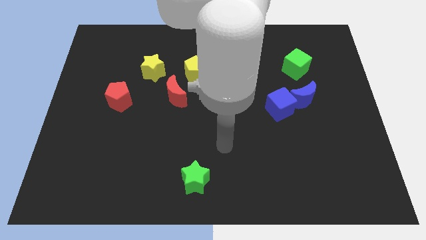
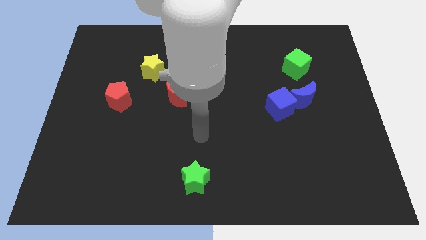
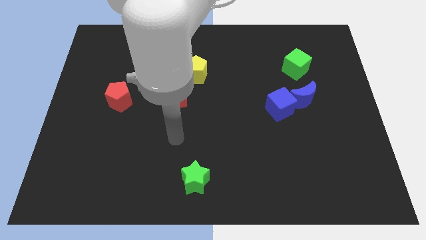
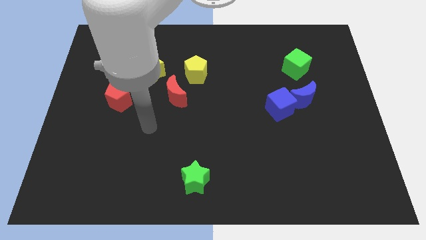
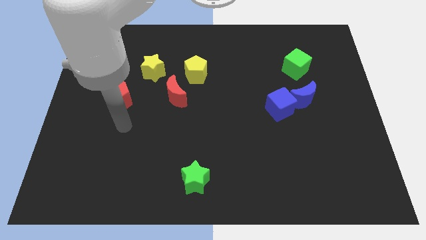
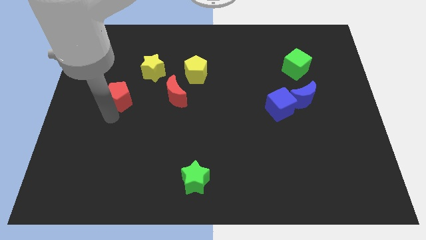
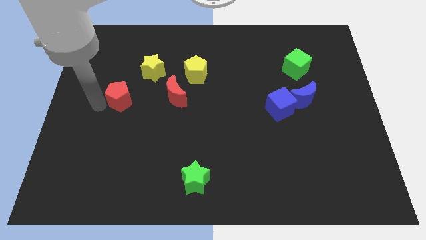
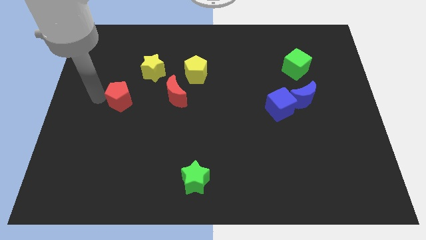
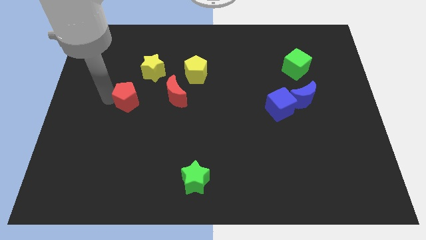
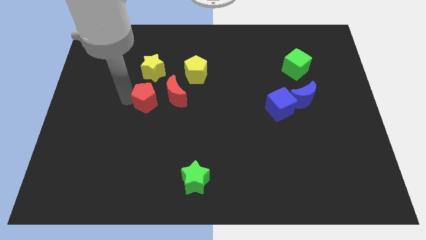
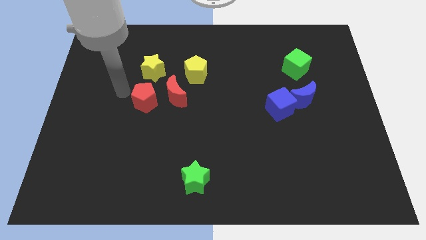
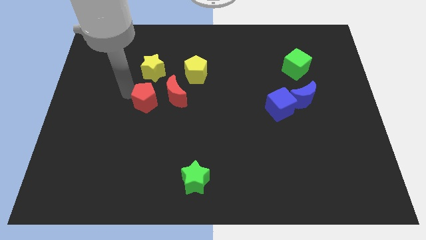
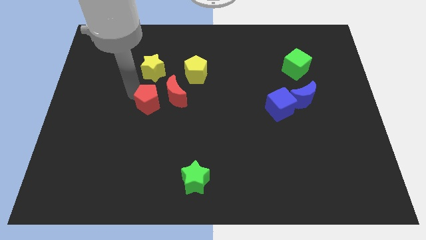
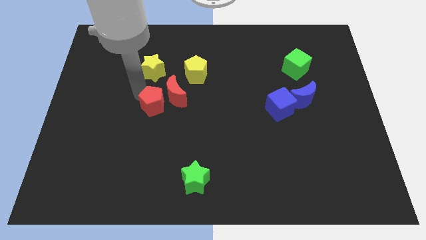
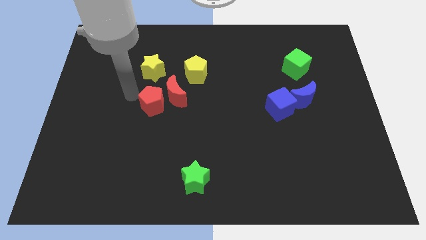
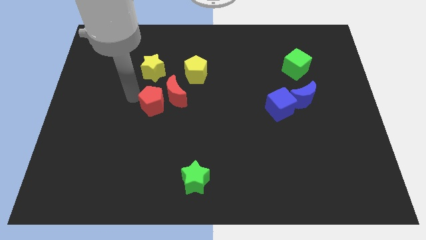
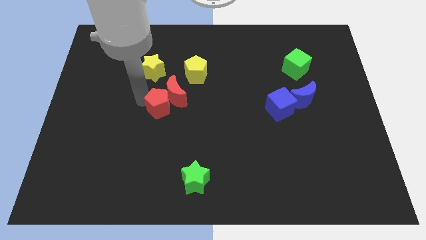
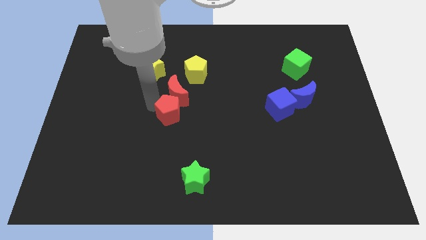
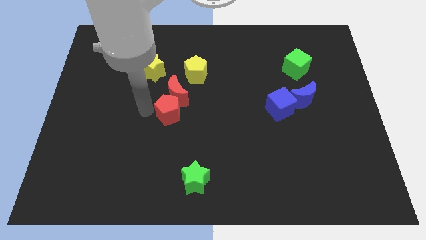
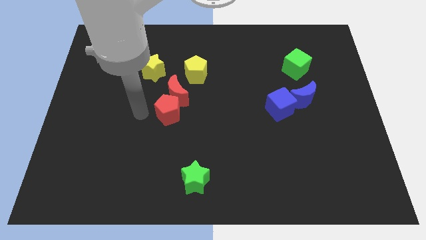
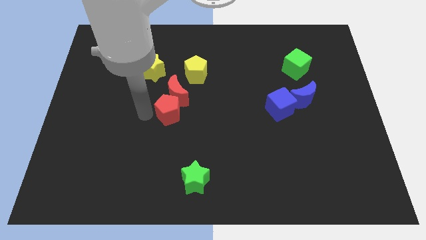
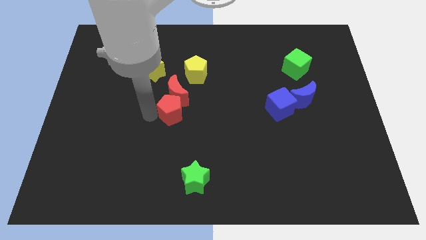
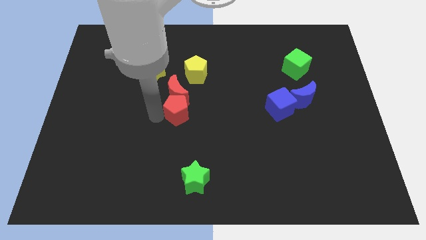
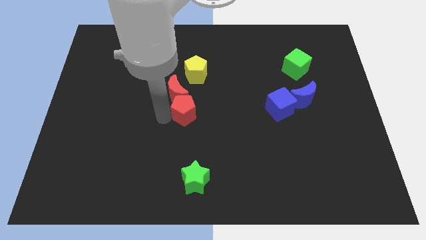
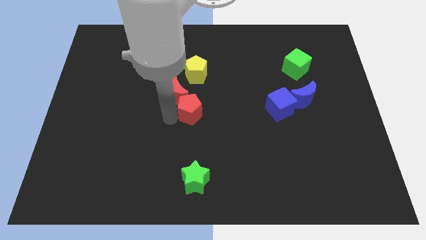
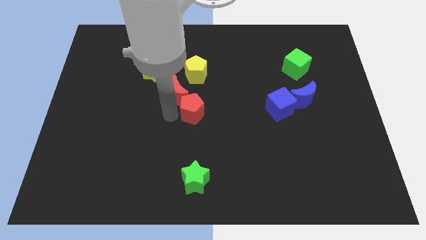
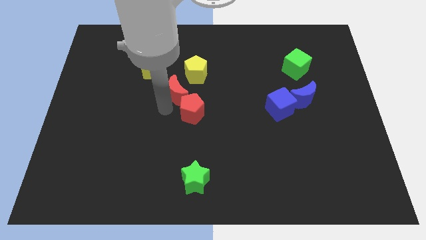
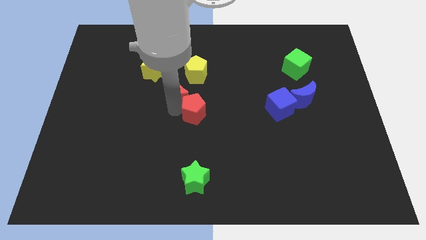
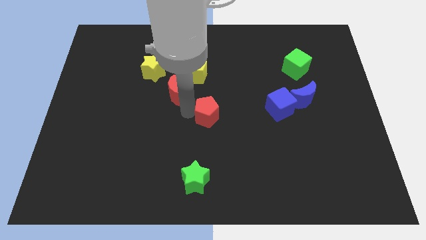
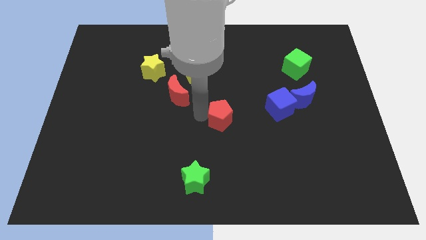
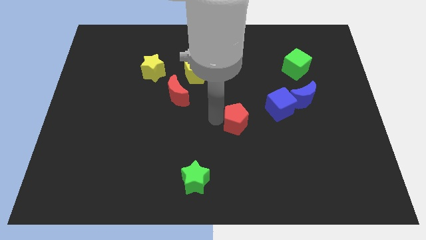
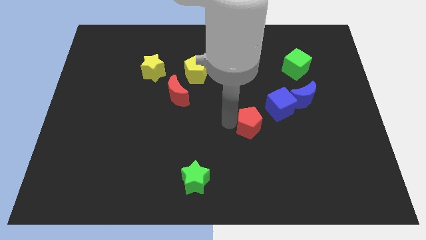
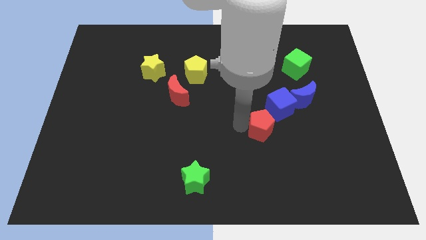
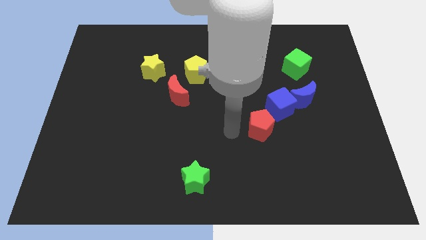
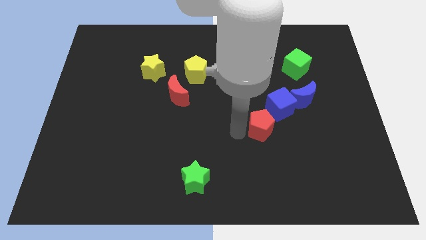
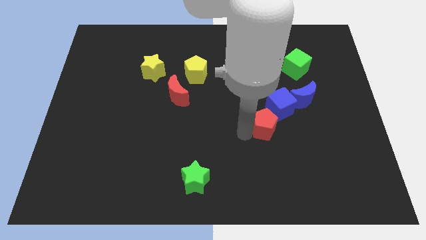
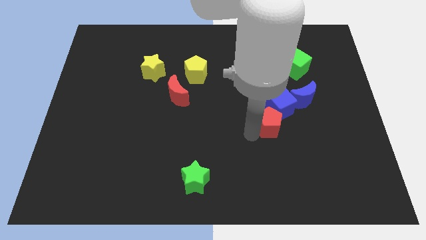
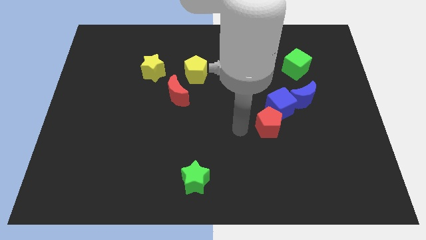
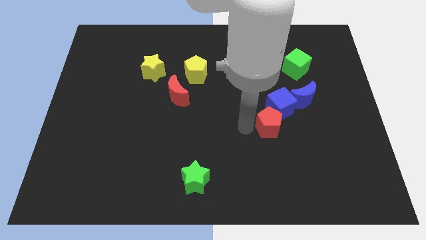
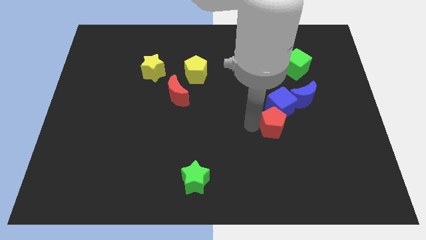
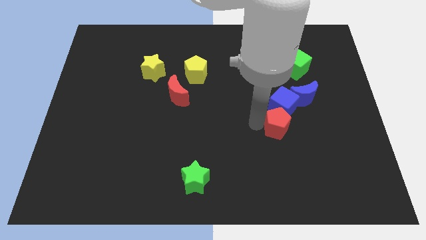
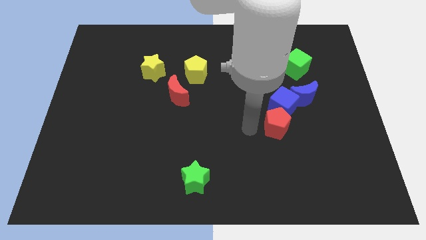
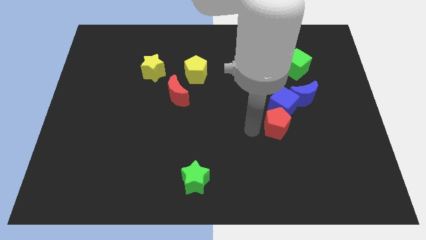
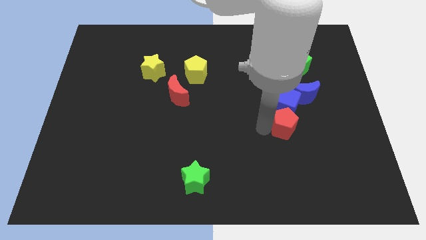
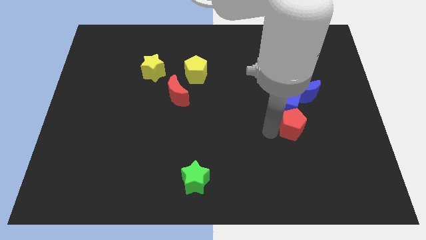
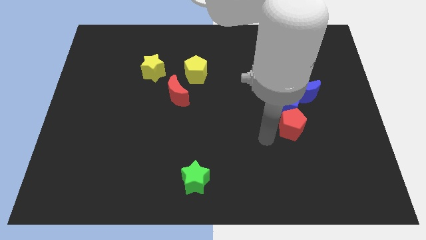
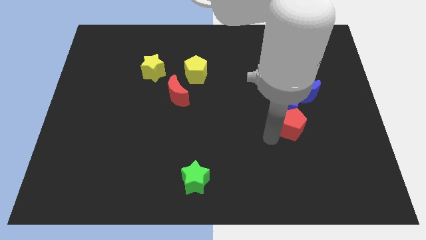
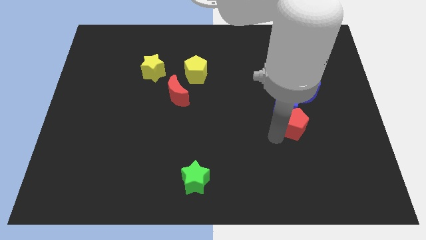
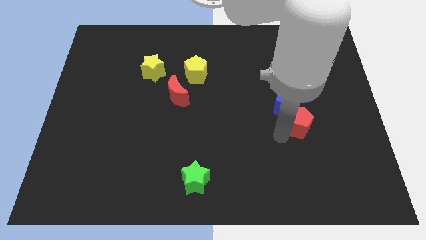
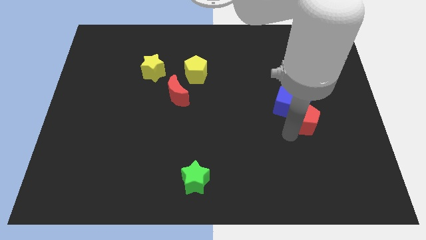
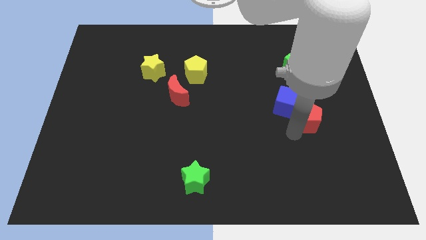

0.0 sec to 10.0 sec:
slide the red pentagon just right of the blue cube

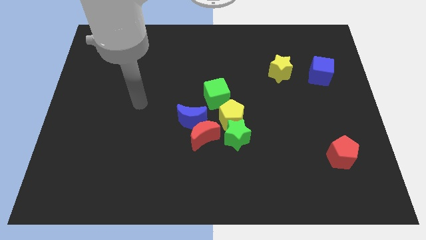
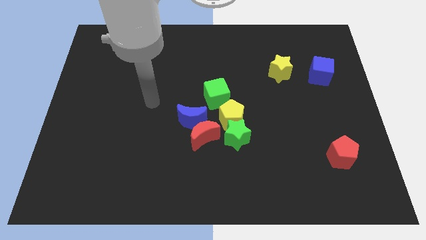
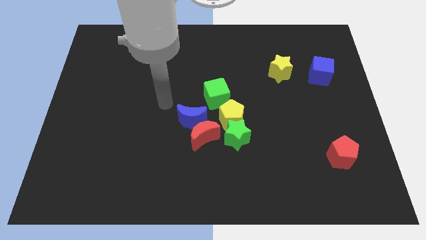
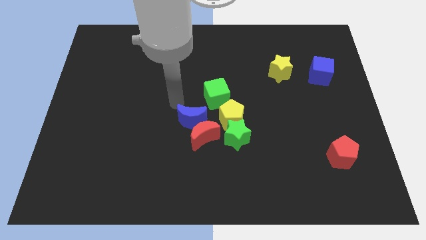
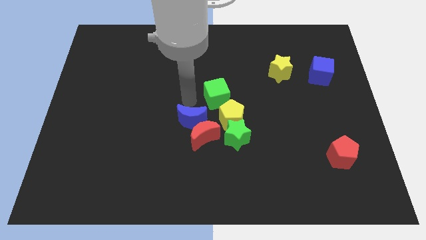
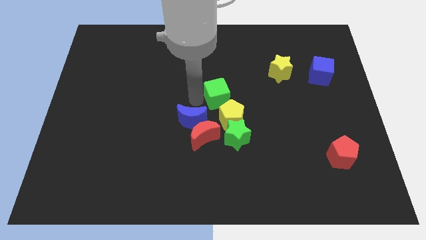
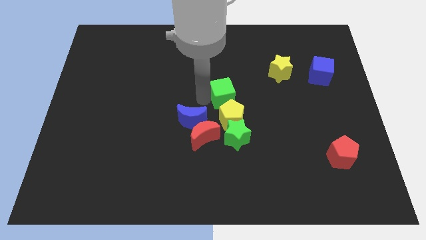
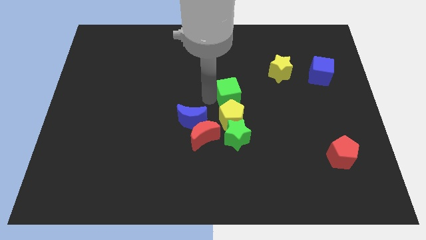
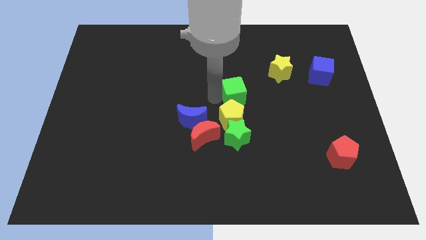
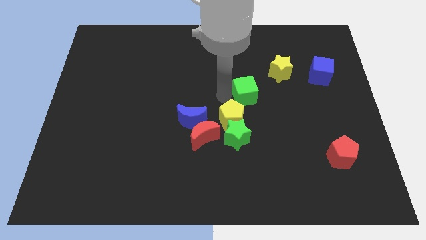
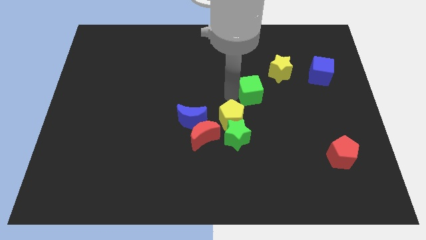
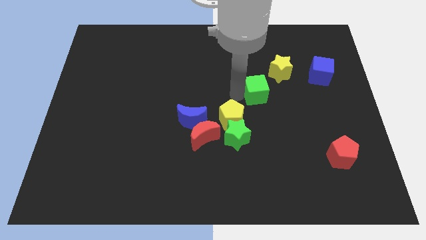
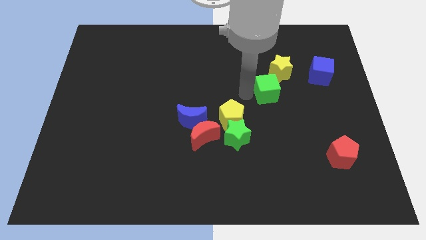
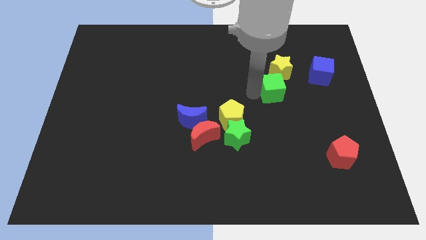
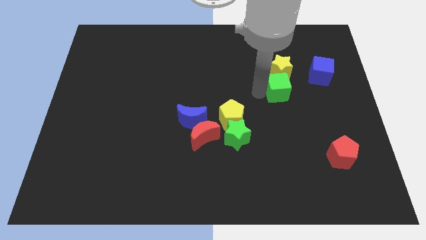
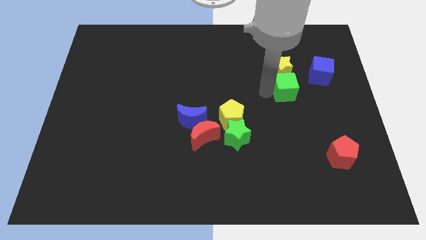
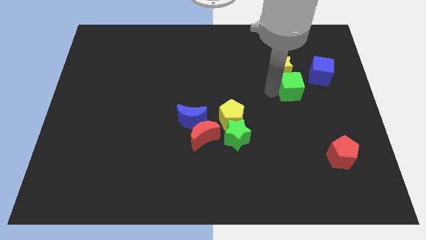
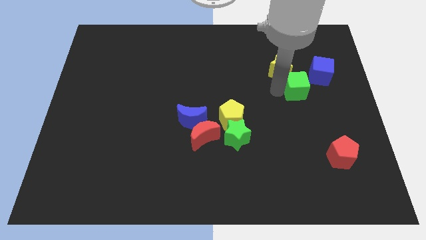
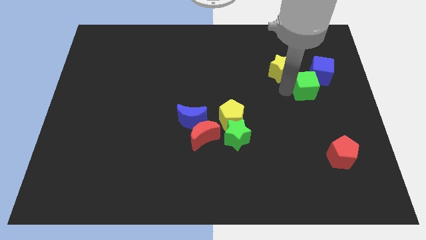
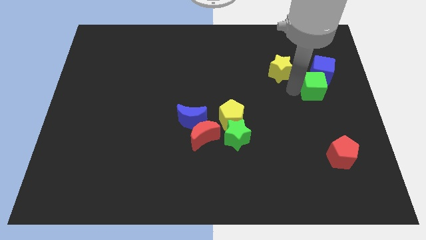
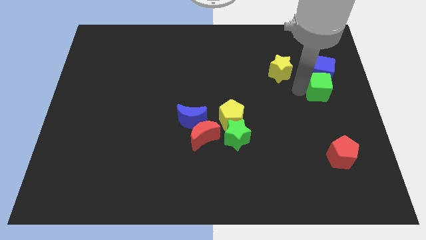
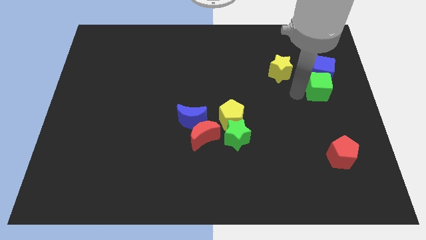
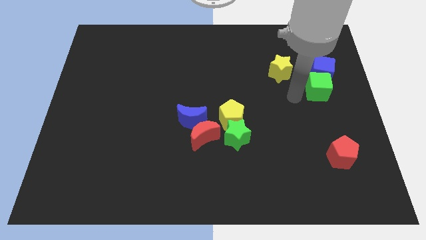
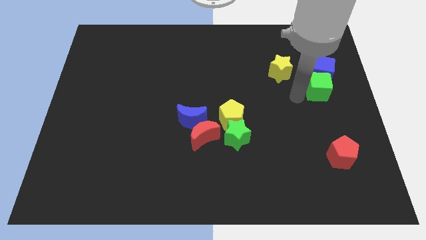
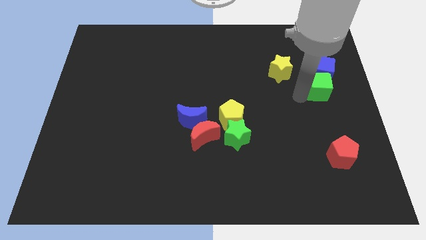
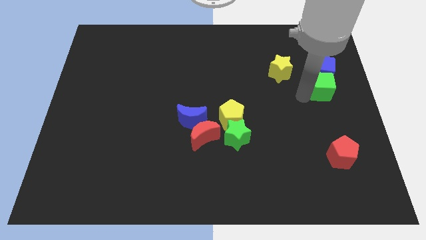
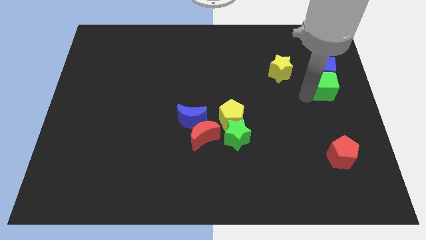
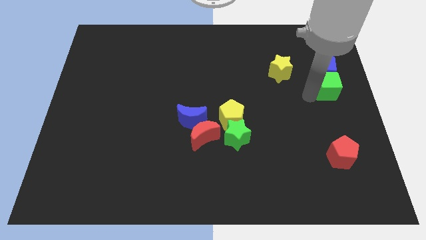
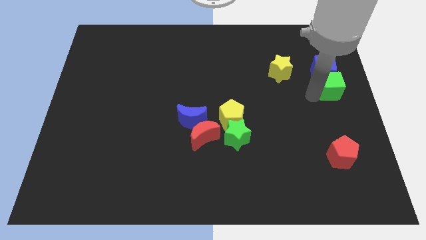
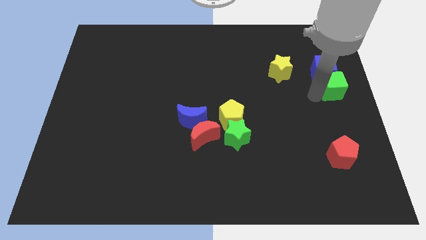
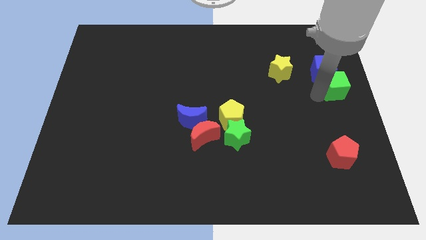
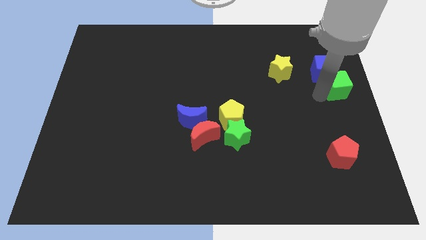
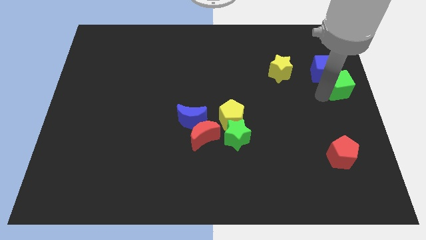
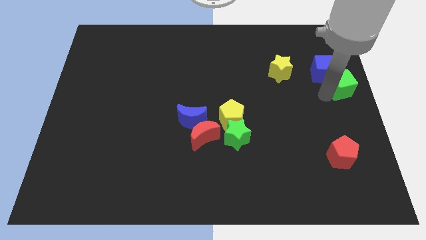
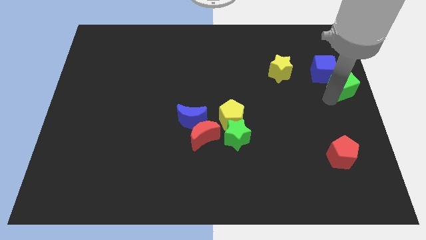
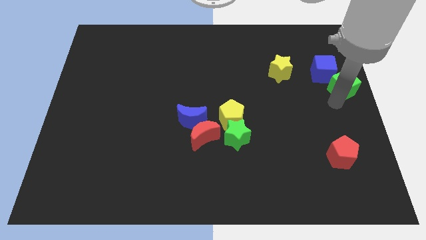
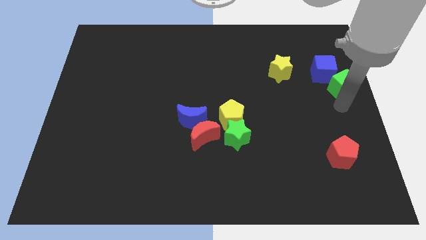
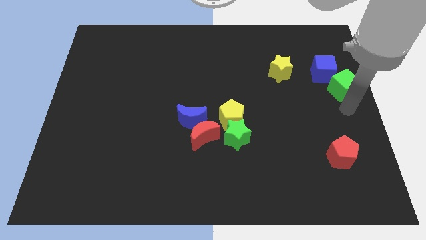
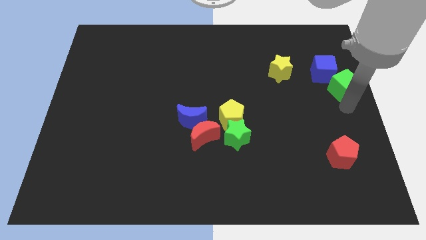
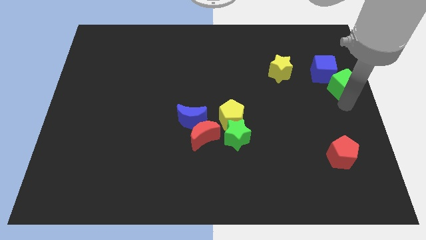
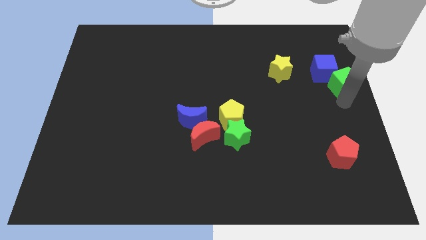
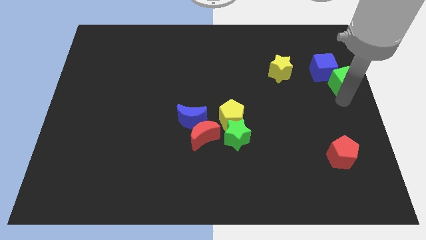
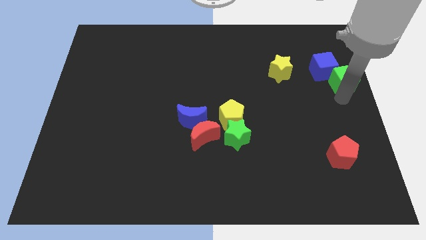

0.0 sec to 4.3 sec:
slide the green cube to the right side of the yellow star
